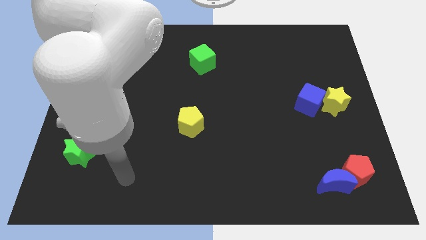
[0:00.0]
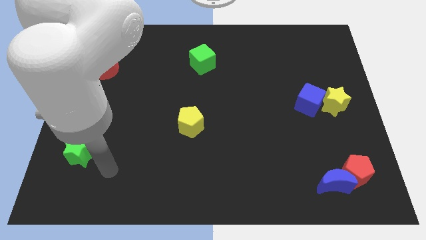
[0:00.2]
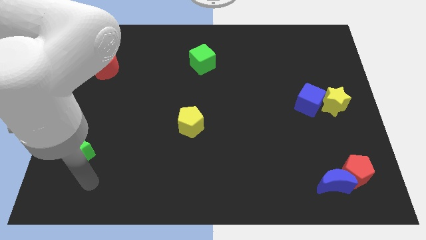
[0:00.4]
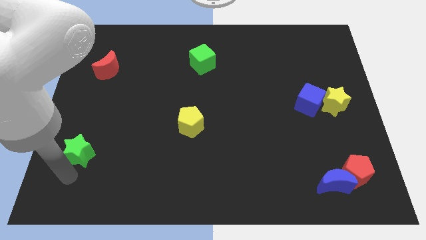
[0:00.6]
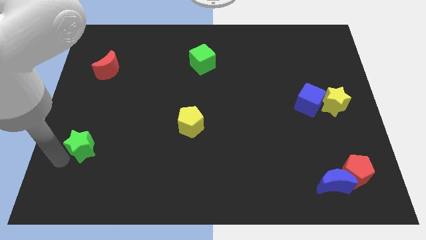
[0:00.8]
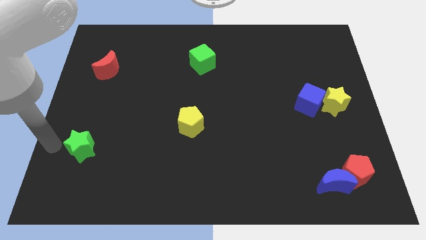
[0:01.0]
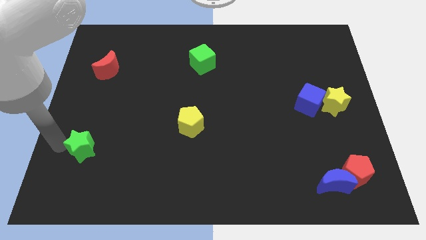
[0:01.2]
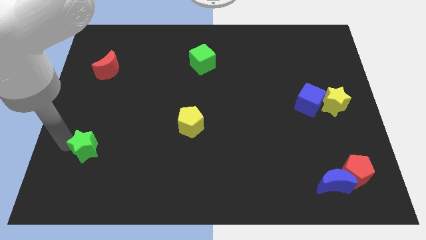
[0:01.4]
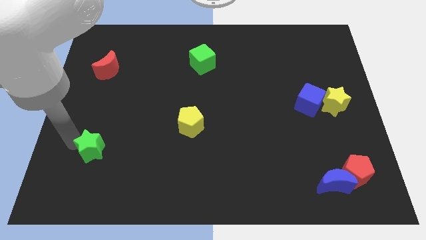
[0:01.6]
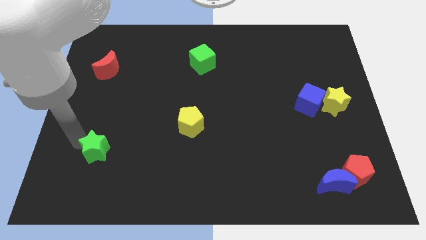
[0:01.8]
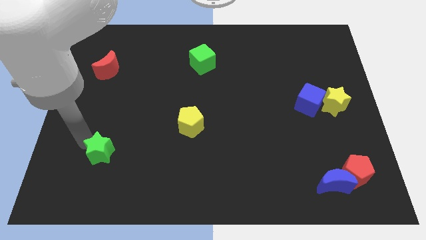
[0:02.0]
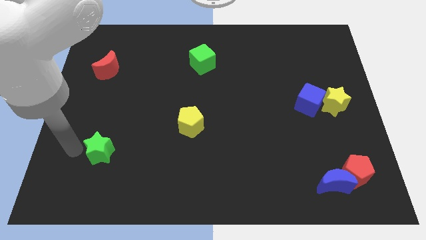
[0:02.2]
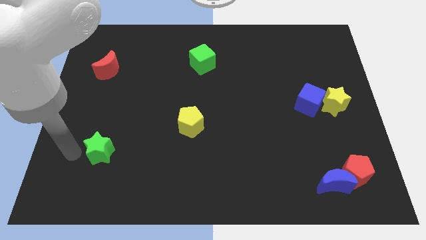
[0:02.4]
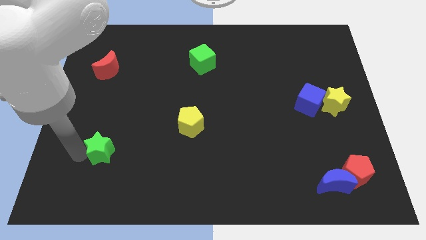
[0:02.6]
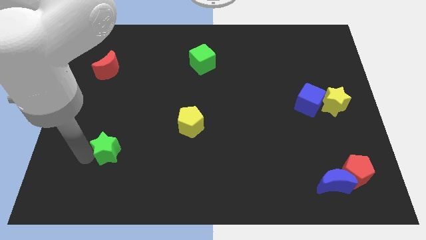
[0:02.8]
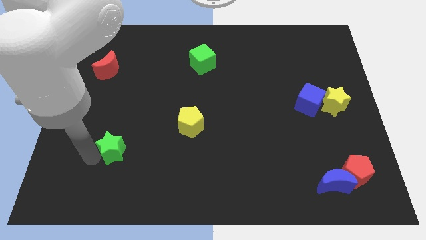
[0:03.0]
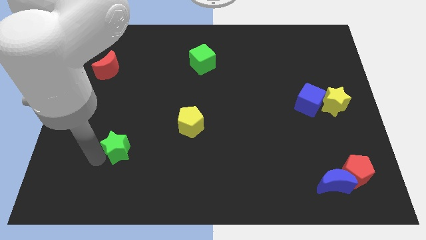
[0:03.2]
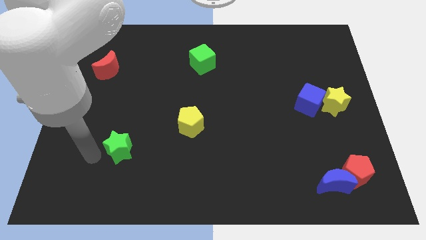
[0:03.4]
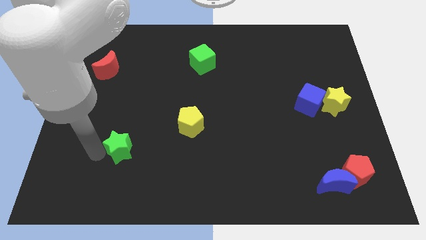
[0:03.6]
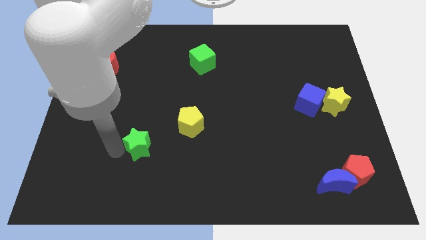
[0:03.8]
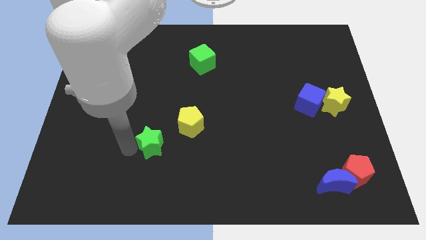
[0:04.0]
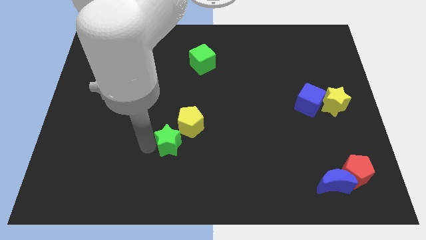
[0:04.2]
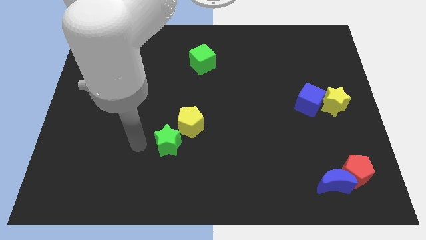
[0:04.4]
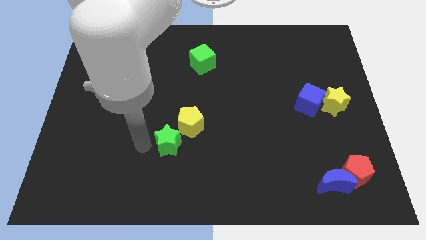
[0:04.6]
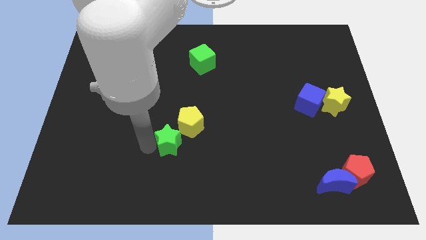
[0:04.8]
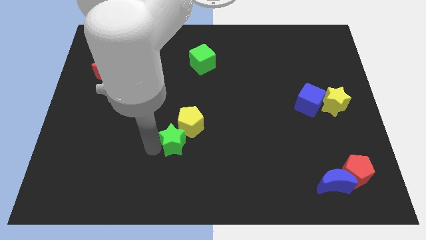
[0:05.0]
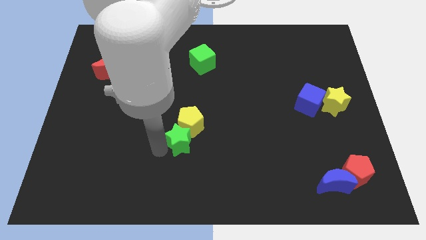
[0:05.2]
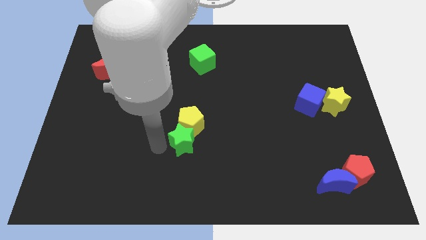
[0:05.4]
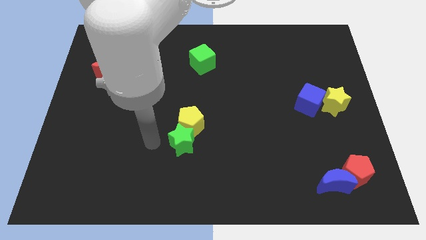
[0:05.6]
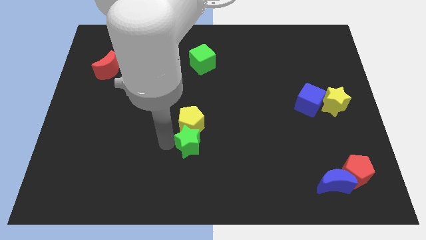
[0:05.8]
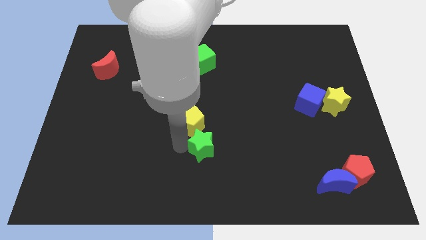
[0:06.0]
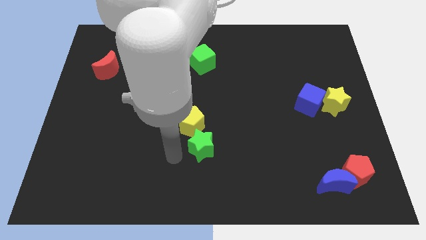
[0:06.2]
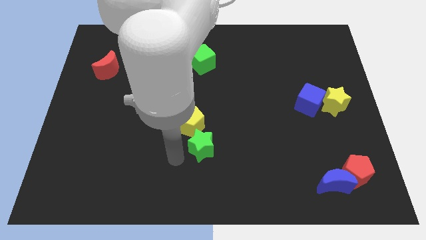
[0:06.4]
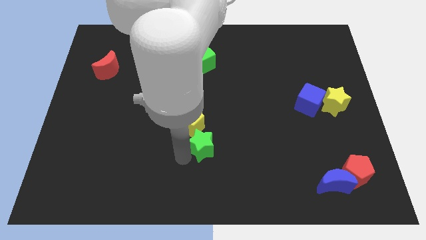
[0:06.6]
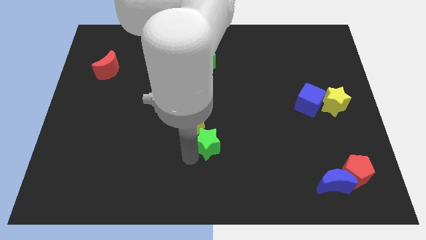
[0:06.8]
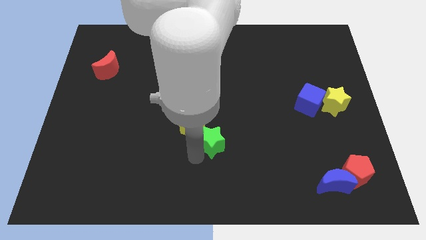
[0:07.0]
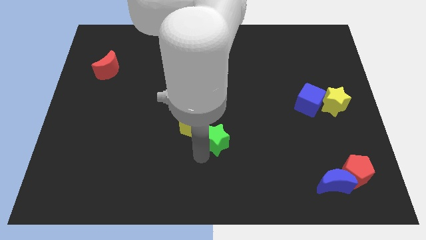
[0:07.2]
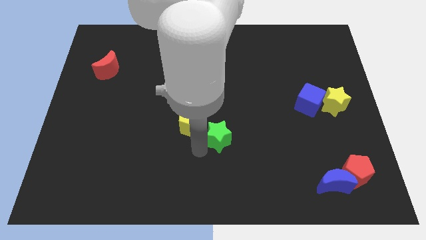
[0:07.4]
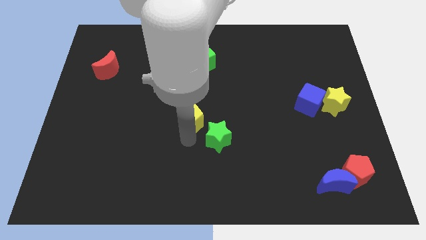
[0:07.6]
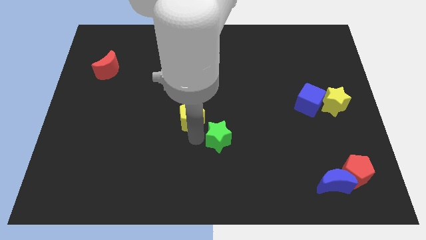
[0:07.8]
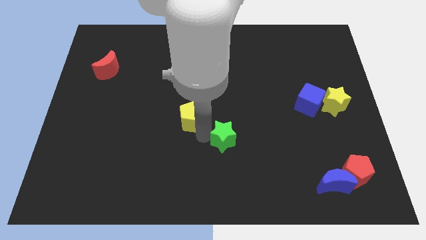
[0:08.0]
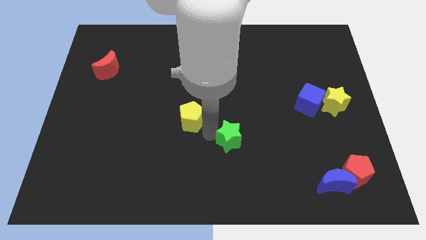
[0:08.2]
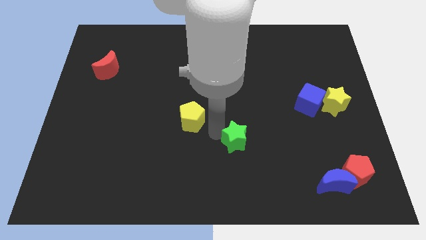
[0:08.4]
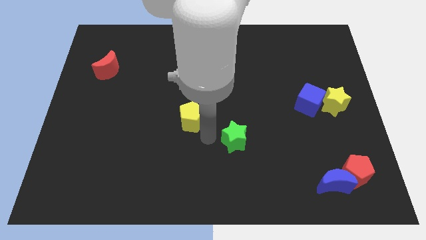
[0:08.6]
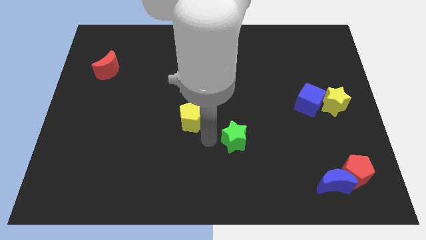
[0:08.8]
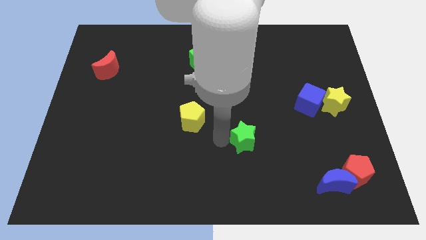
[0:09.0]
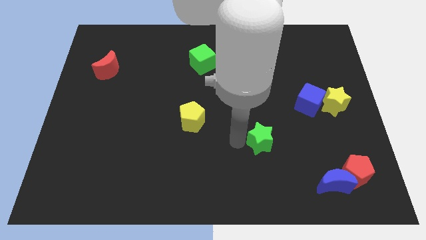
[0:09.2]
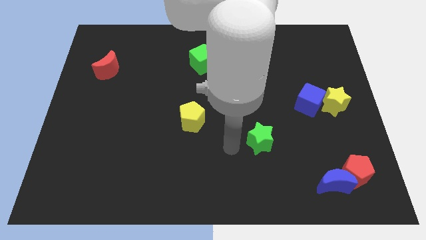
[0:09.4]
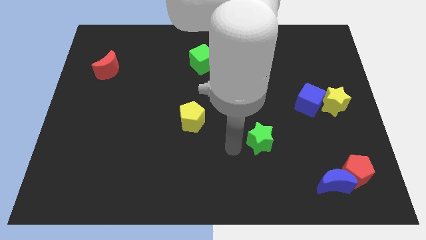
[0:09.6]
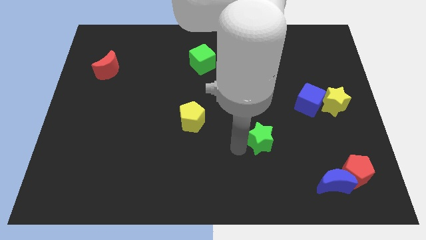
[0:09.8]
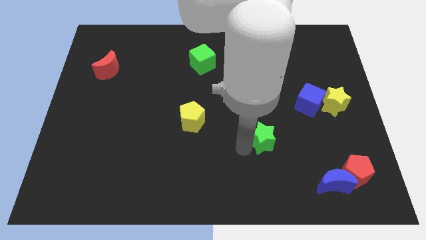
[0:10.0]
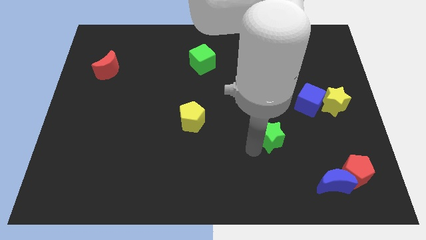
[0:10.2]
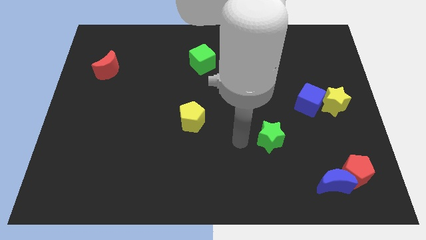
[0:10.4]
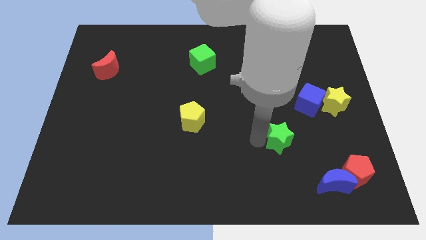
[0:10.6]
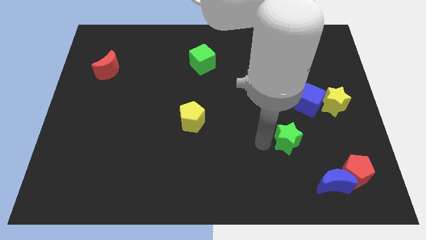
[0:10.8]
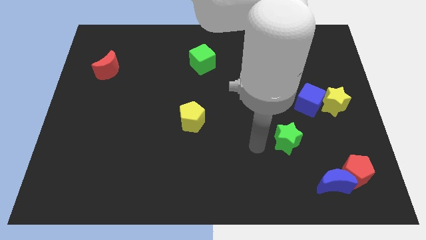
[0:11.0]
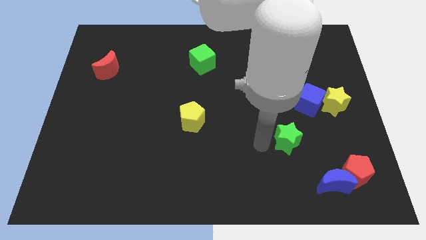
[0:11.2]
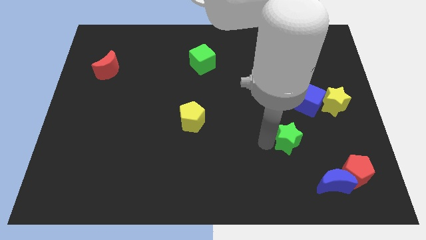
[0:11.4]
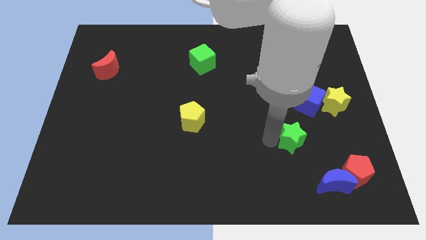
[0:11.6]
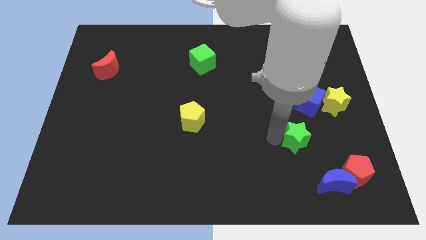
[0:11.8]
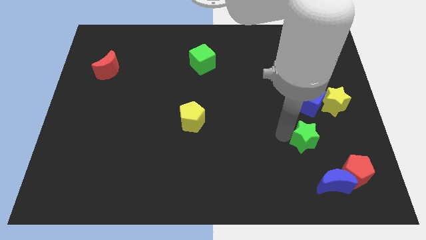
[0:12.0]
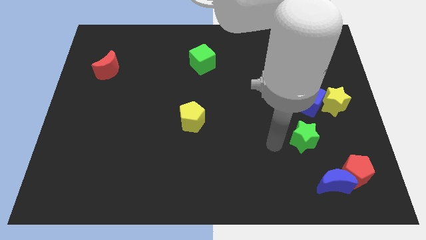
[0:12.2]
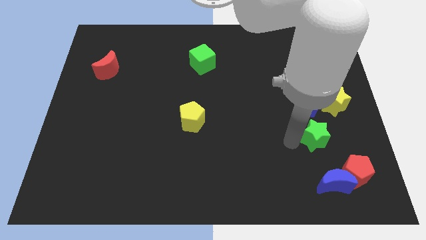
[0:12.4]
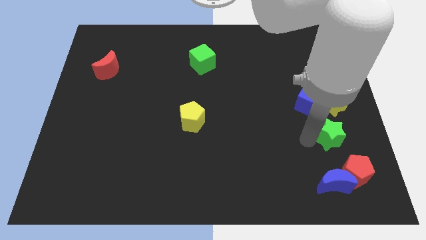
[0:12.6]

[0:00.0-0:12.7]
push the green star above the red pentagon

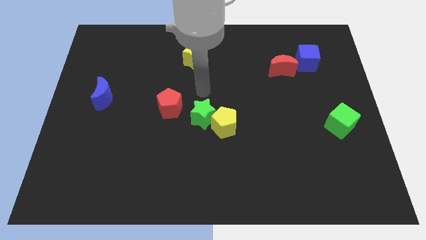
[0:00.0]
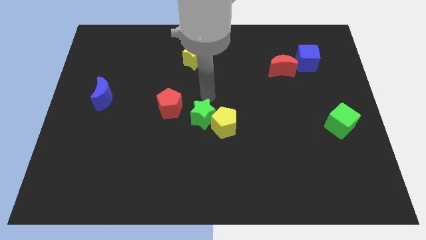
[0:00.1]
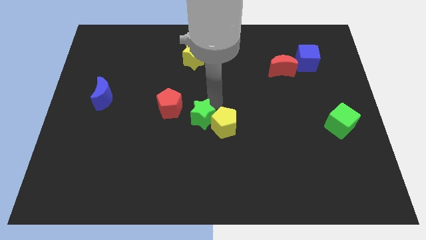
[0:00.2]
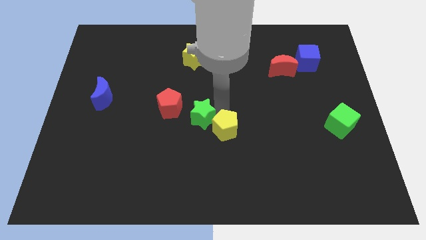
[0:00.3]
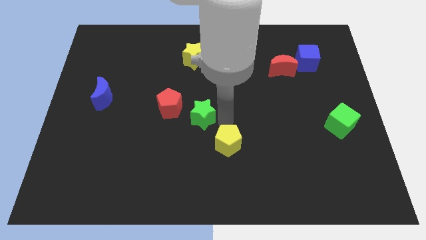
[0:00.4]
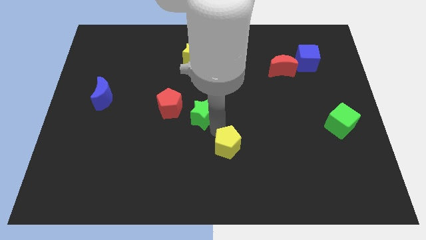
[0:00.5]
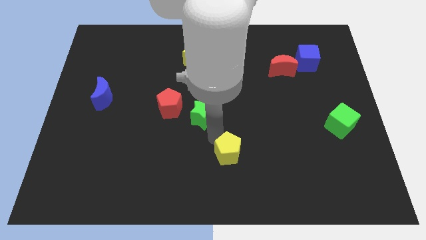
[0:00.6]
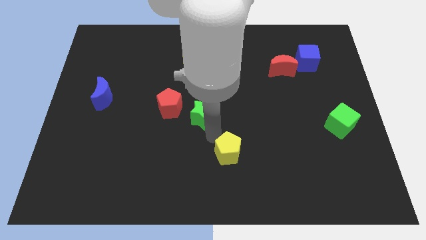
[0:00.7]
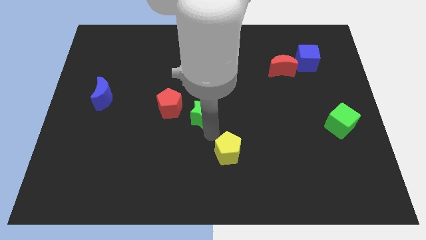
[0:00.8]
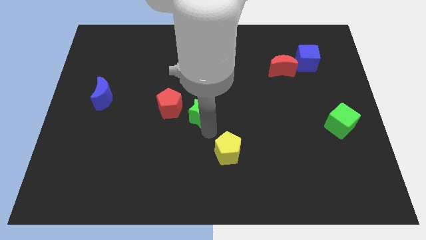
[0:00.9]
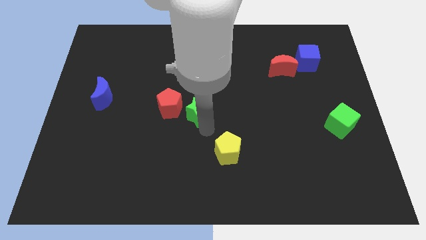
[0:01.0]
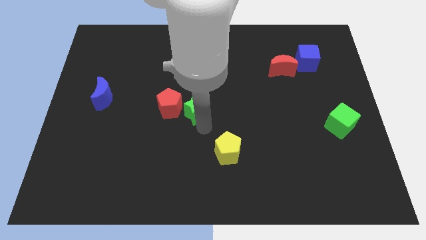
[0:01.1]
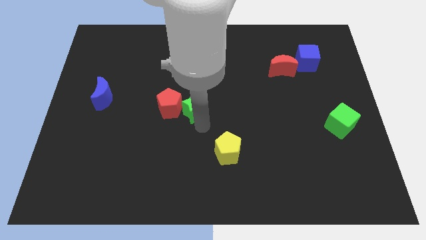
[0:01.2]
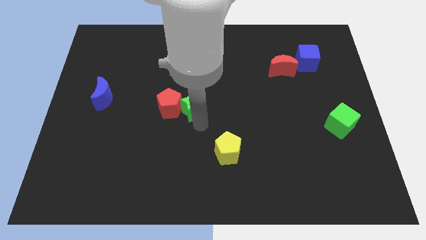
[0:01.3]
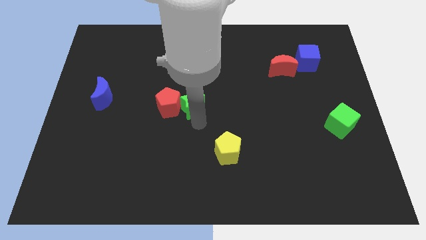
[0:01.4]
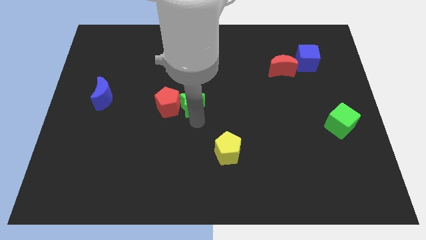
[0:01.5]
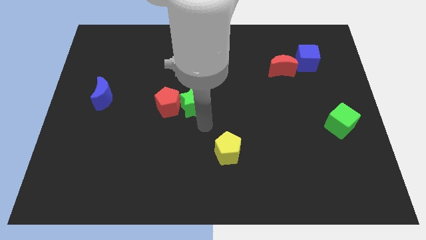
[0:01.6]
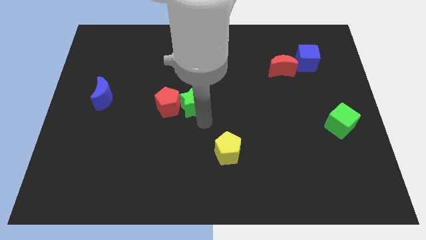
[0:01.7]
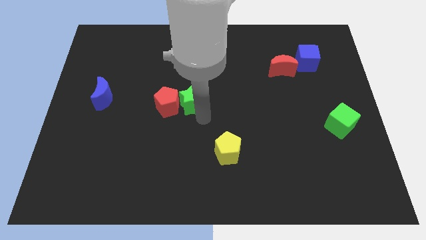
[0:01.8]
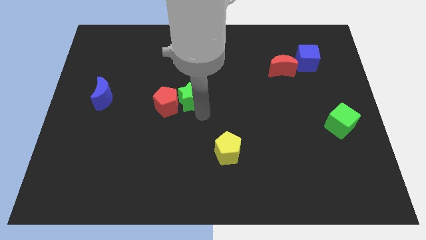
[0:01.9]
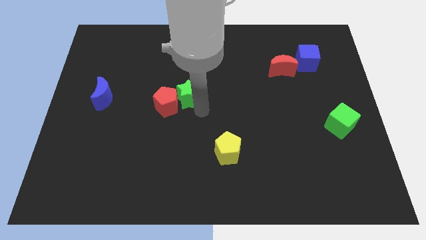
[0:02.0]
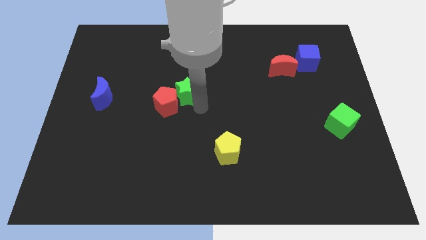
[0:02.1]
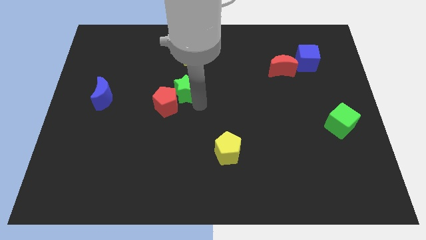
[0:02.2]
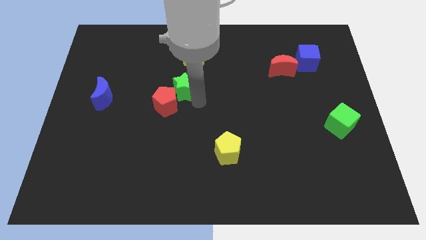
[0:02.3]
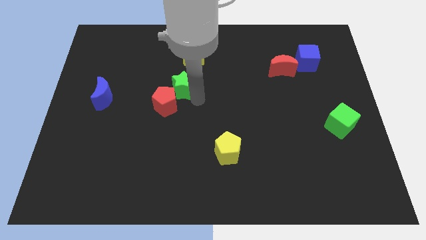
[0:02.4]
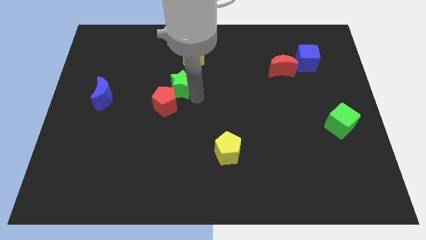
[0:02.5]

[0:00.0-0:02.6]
slide the green star to the bottom left side of the yellow star
